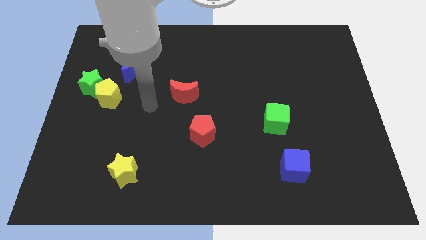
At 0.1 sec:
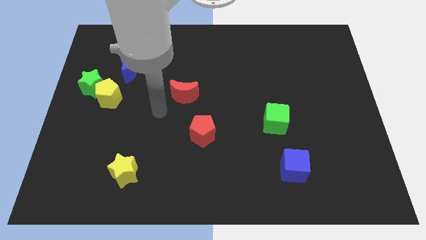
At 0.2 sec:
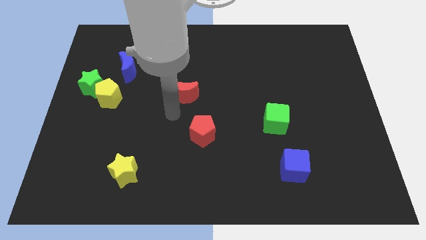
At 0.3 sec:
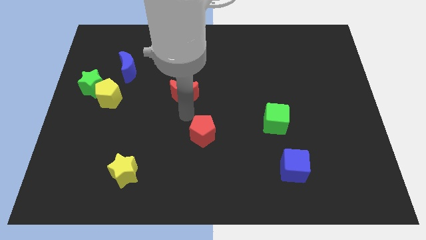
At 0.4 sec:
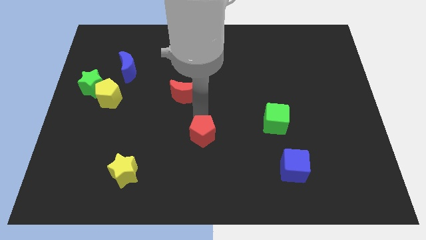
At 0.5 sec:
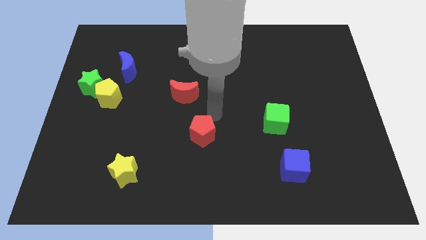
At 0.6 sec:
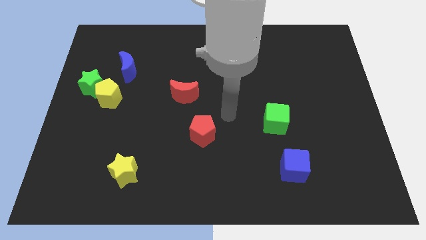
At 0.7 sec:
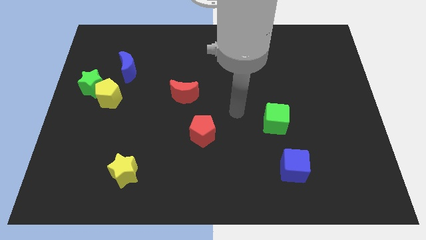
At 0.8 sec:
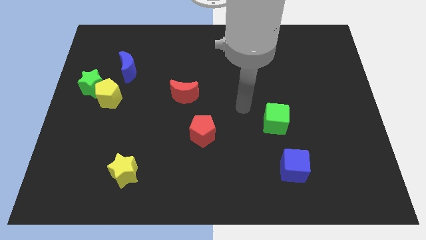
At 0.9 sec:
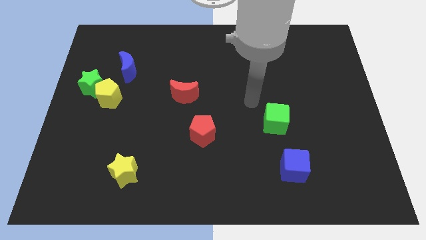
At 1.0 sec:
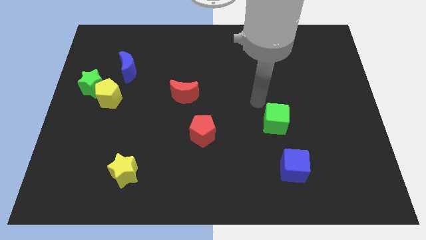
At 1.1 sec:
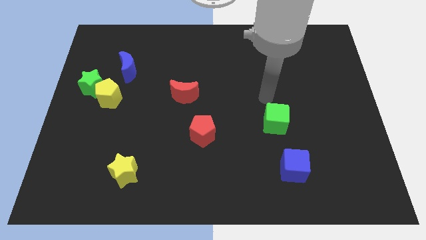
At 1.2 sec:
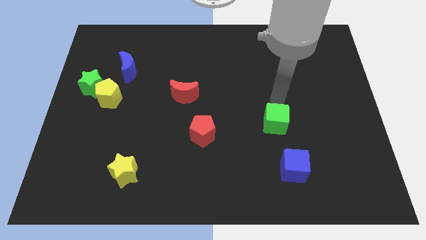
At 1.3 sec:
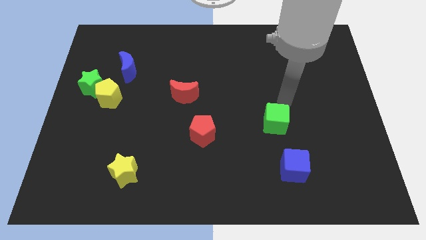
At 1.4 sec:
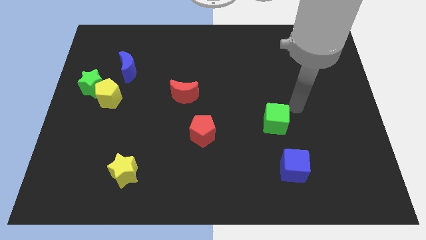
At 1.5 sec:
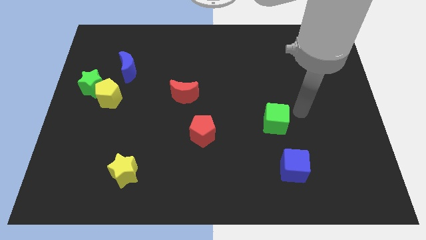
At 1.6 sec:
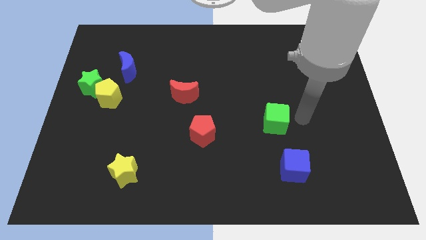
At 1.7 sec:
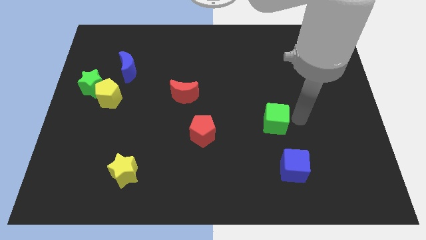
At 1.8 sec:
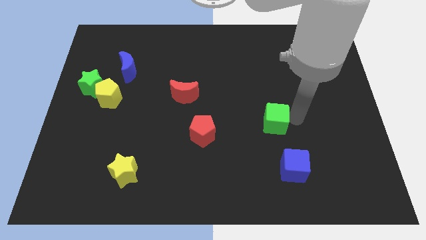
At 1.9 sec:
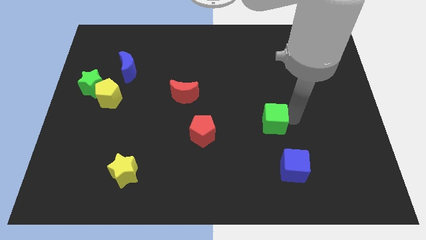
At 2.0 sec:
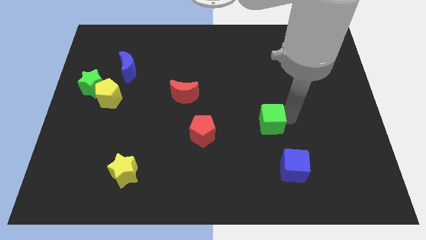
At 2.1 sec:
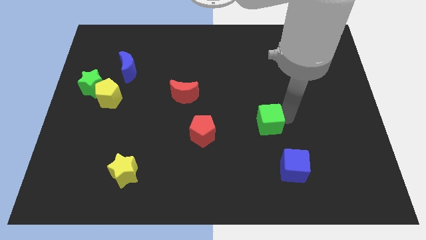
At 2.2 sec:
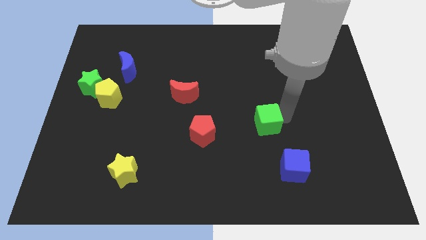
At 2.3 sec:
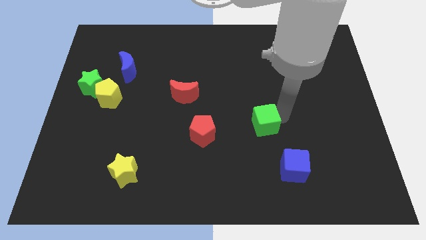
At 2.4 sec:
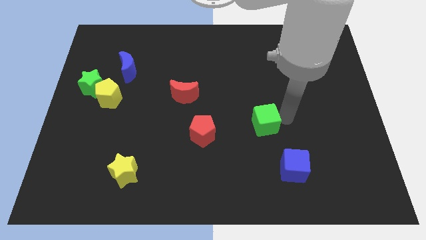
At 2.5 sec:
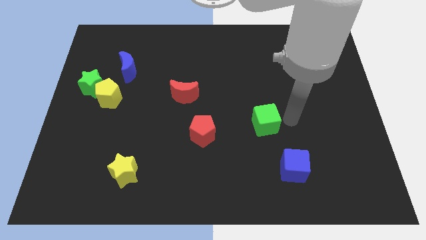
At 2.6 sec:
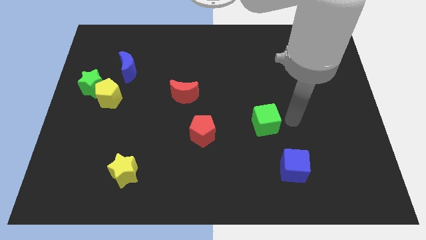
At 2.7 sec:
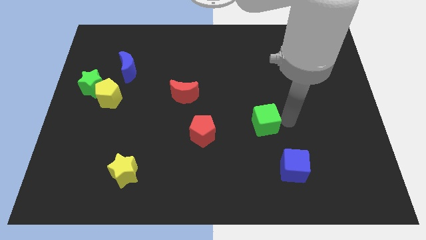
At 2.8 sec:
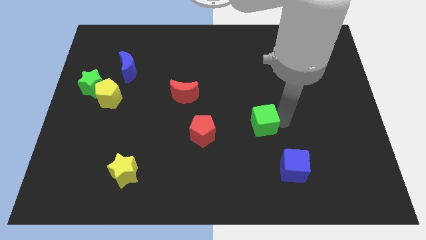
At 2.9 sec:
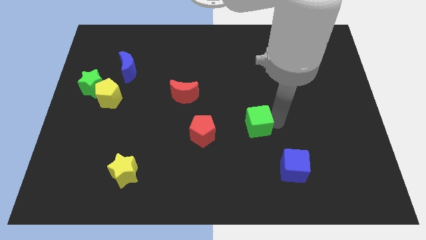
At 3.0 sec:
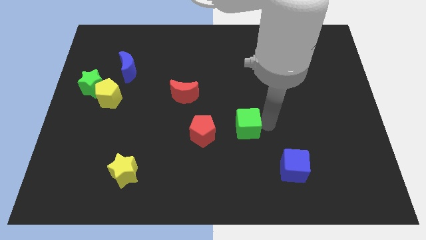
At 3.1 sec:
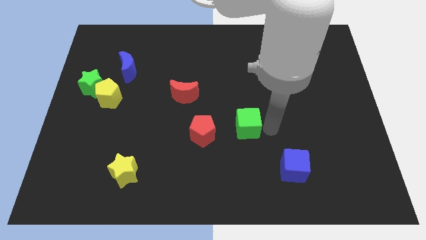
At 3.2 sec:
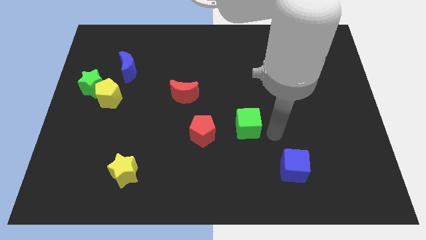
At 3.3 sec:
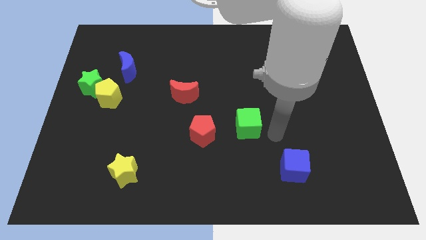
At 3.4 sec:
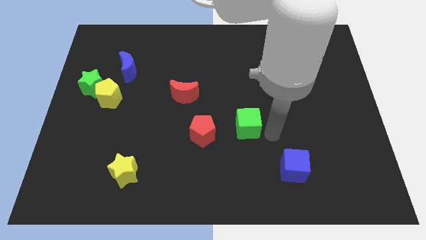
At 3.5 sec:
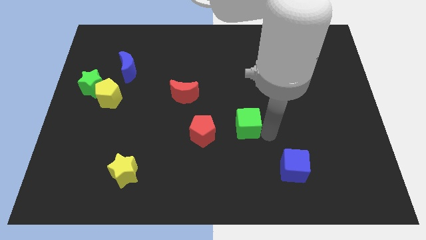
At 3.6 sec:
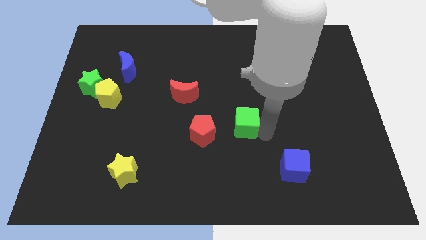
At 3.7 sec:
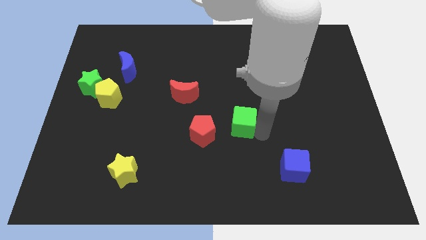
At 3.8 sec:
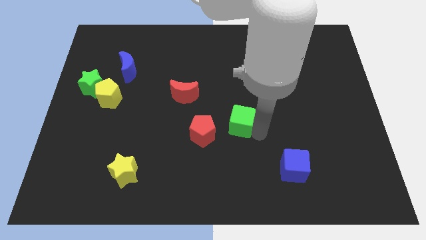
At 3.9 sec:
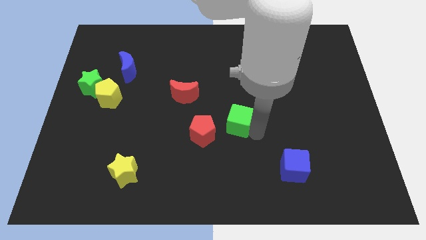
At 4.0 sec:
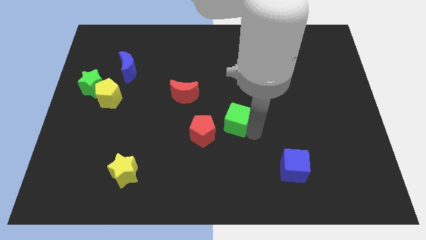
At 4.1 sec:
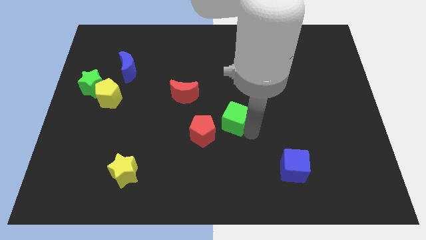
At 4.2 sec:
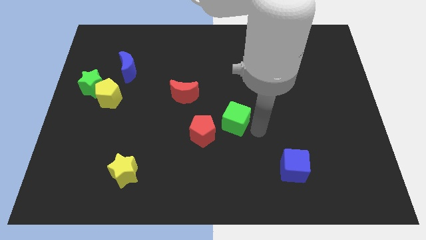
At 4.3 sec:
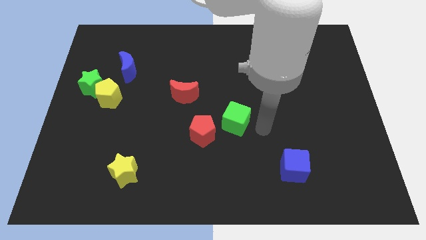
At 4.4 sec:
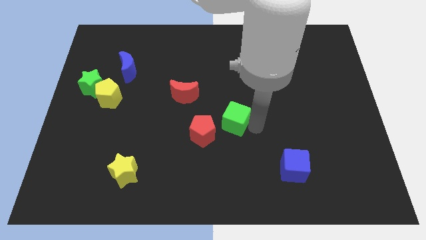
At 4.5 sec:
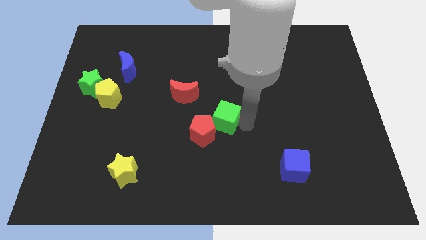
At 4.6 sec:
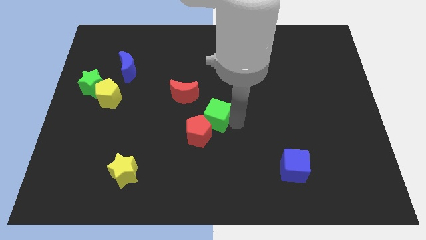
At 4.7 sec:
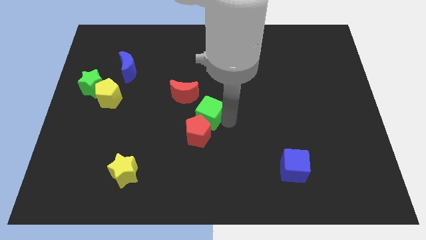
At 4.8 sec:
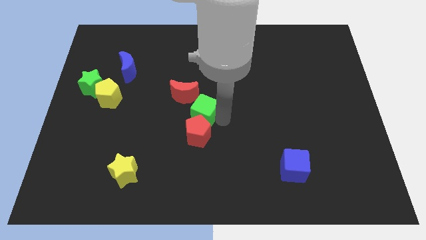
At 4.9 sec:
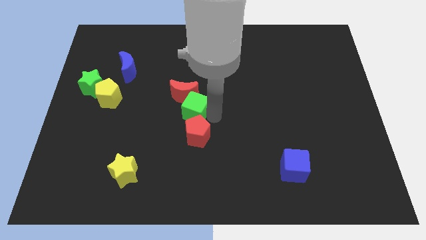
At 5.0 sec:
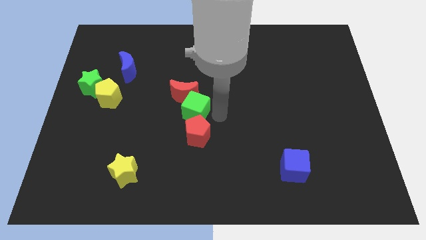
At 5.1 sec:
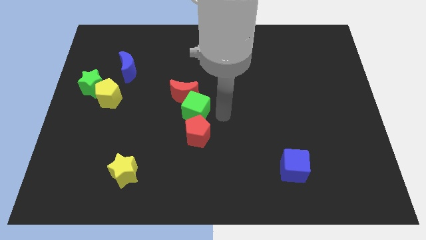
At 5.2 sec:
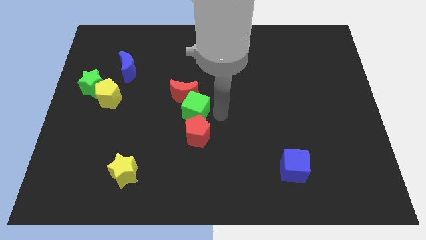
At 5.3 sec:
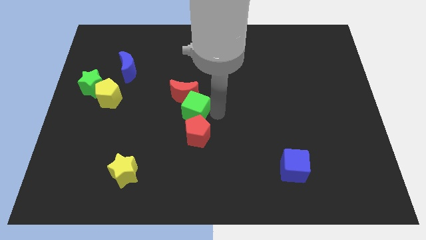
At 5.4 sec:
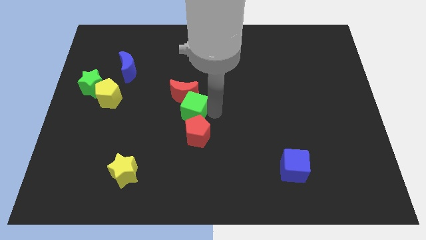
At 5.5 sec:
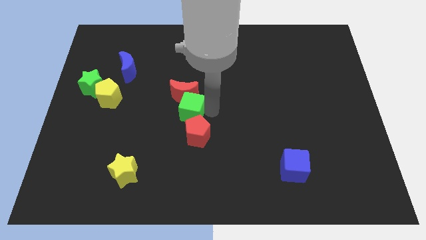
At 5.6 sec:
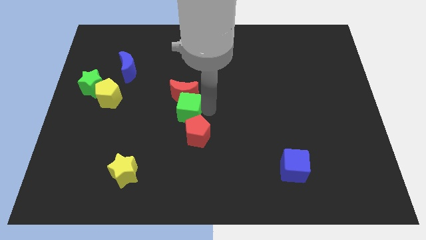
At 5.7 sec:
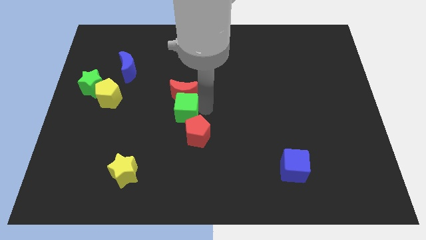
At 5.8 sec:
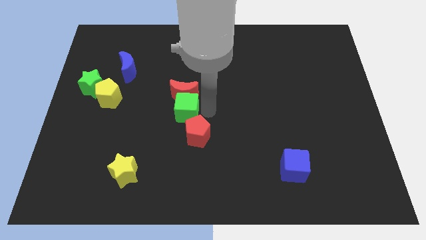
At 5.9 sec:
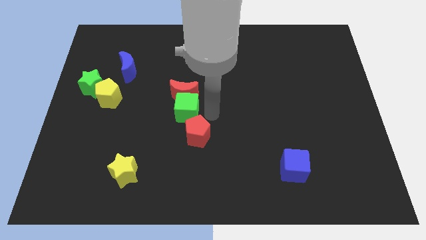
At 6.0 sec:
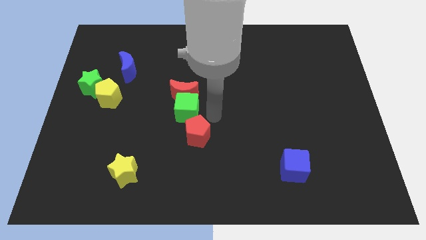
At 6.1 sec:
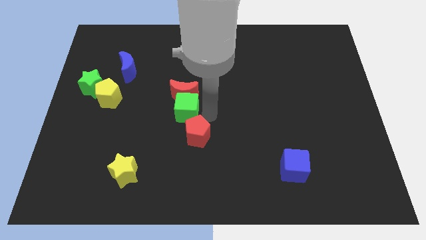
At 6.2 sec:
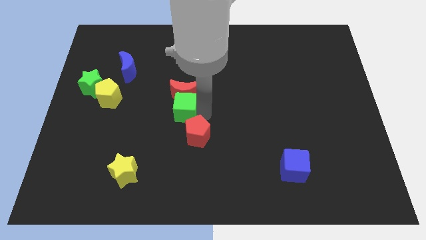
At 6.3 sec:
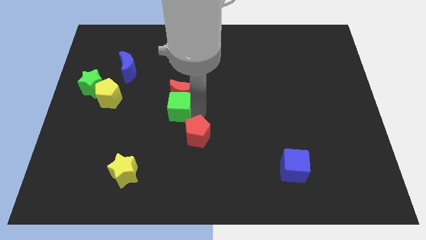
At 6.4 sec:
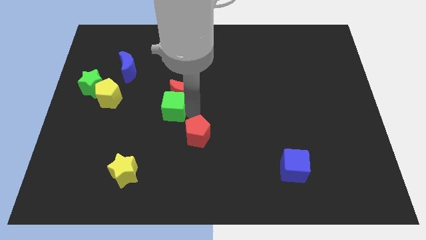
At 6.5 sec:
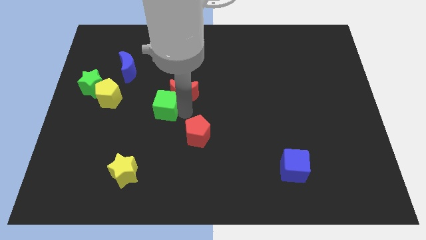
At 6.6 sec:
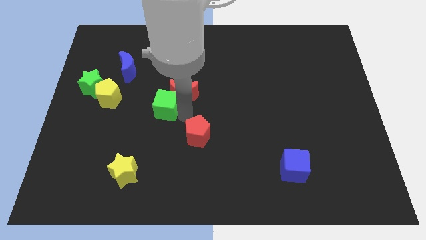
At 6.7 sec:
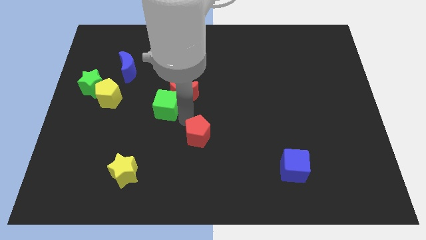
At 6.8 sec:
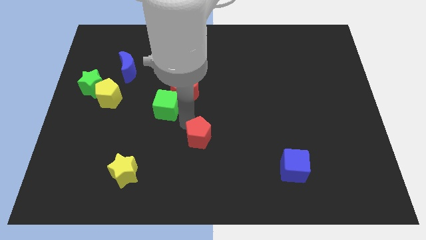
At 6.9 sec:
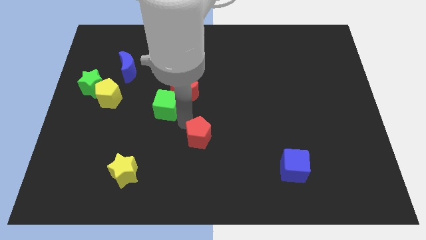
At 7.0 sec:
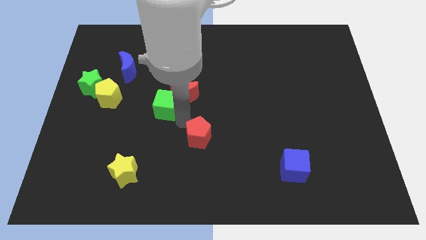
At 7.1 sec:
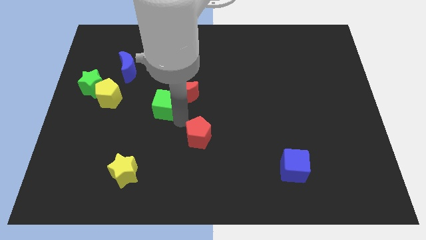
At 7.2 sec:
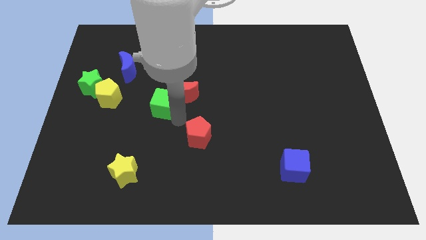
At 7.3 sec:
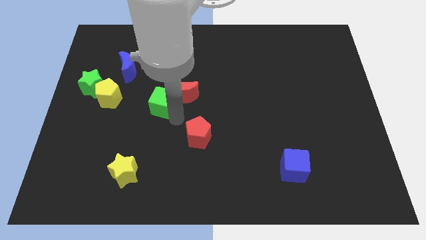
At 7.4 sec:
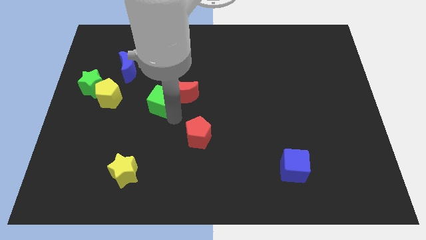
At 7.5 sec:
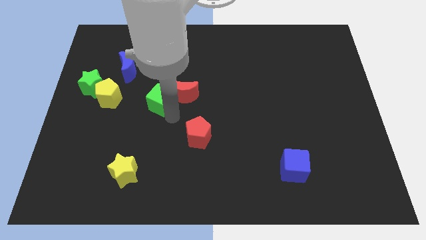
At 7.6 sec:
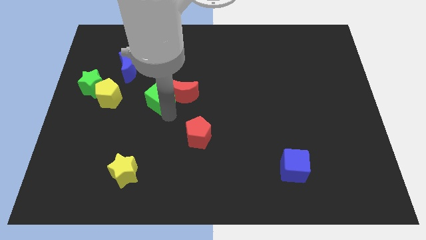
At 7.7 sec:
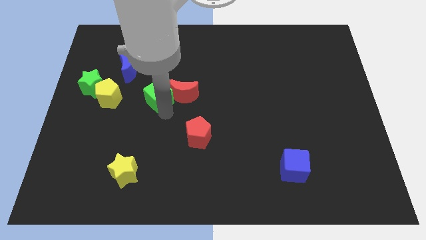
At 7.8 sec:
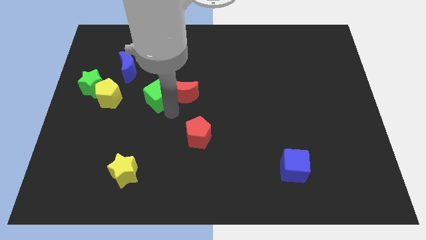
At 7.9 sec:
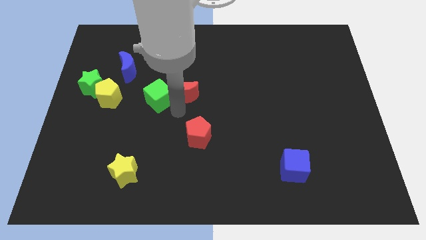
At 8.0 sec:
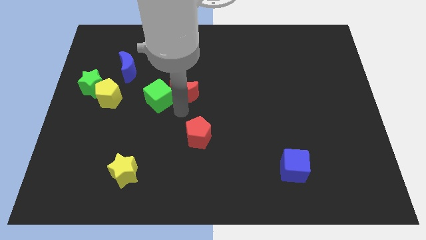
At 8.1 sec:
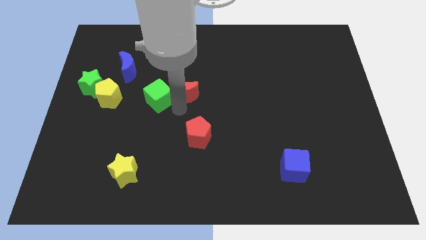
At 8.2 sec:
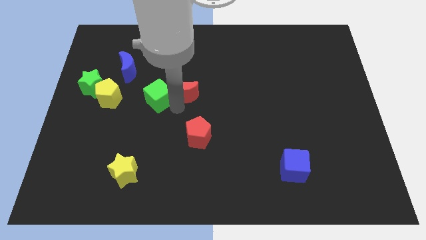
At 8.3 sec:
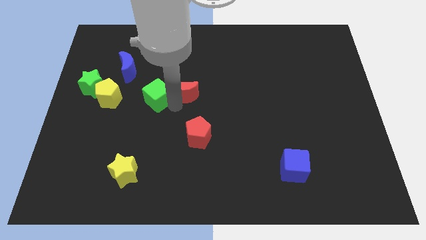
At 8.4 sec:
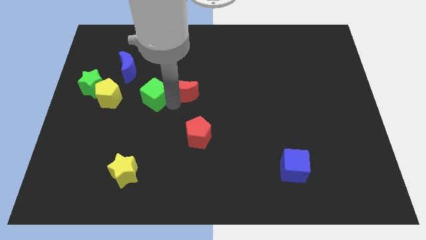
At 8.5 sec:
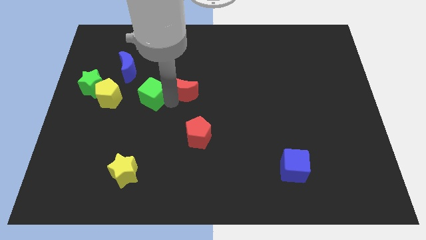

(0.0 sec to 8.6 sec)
push the green cube to the right side of the green star
